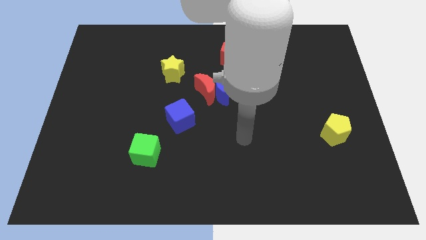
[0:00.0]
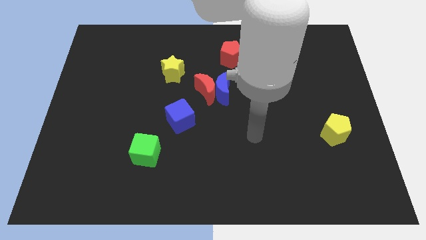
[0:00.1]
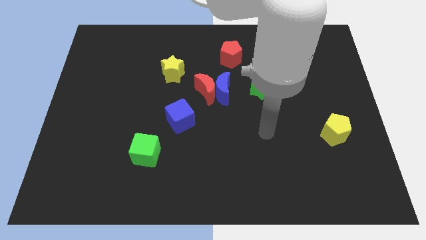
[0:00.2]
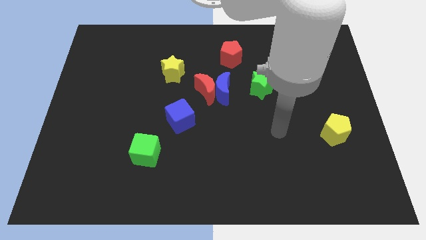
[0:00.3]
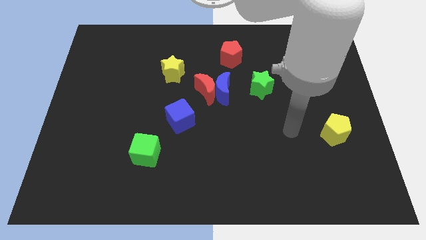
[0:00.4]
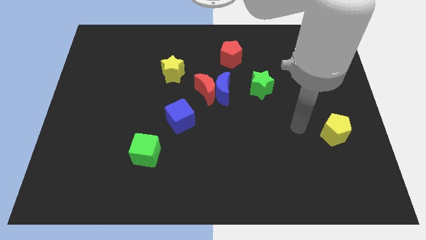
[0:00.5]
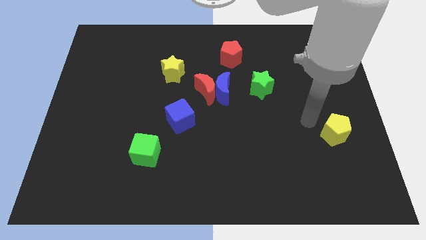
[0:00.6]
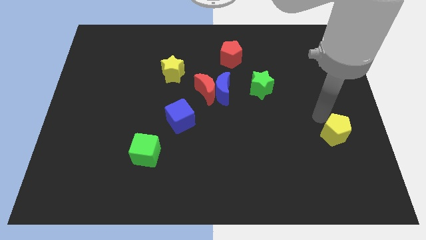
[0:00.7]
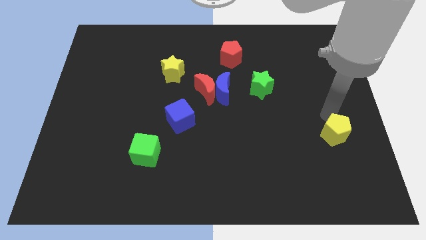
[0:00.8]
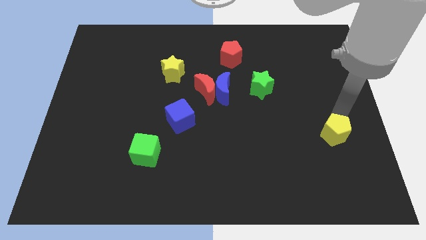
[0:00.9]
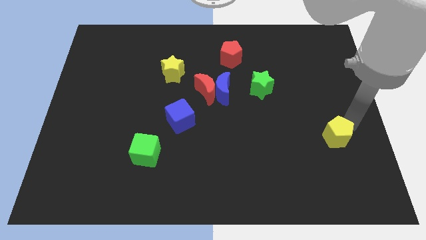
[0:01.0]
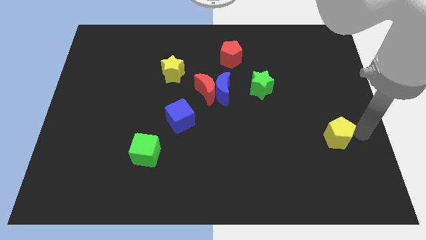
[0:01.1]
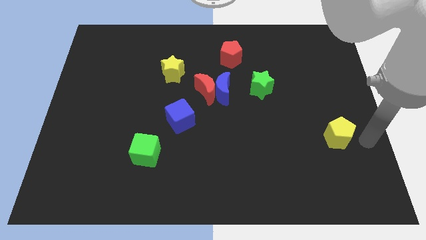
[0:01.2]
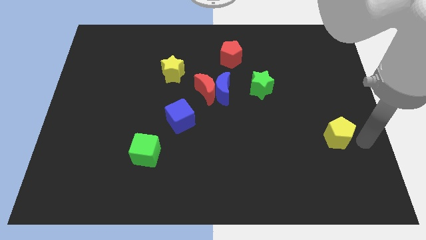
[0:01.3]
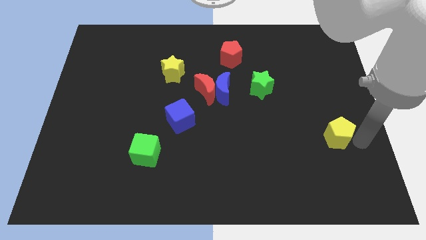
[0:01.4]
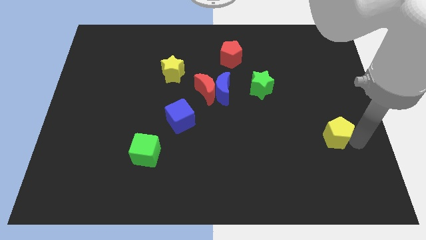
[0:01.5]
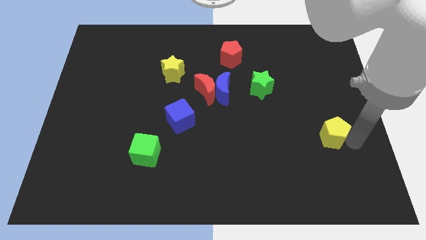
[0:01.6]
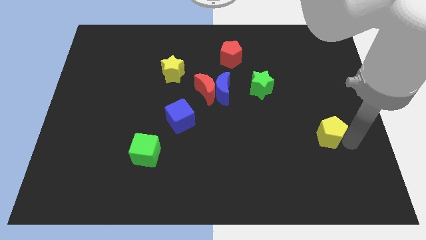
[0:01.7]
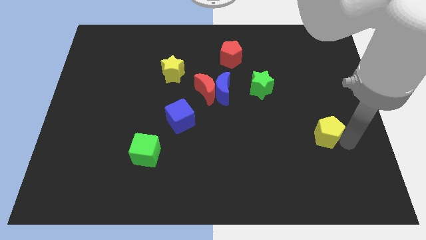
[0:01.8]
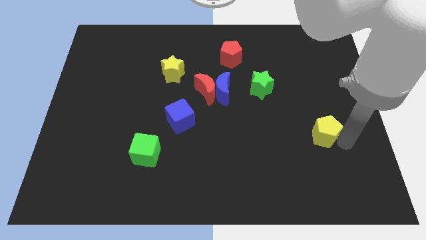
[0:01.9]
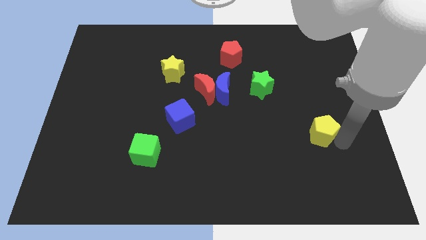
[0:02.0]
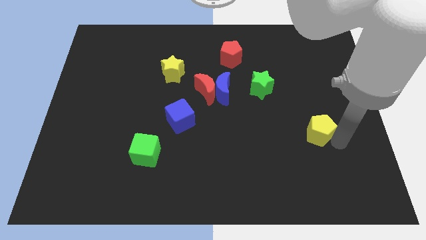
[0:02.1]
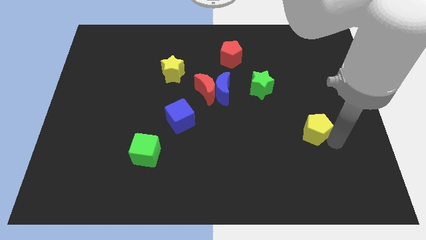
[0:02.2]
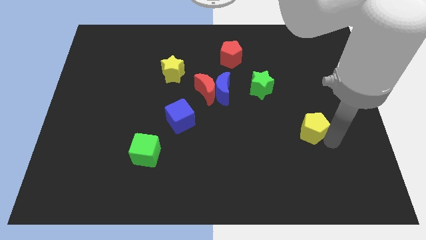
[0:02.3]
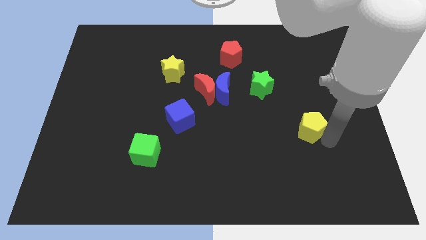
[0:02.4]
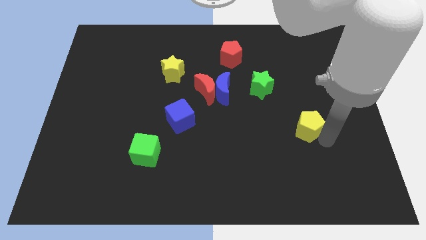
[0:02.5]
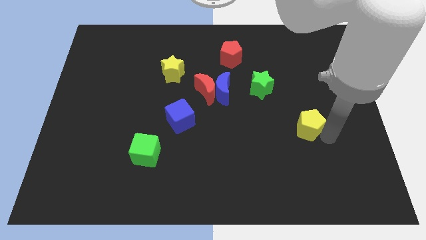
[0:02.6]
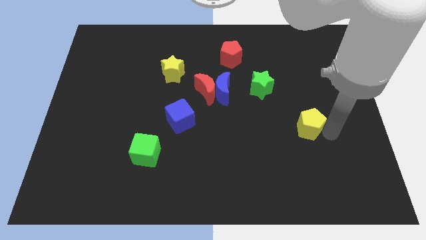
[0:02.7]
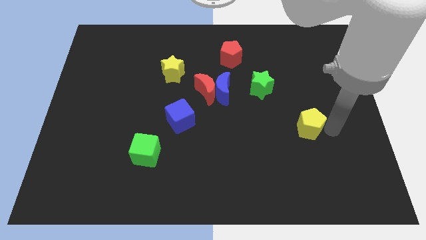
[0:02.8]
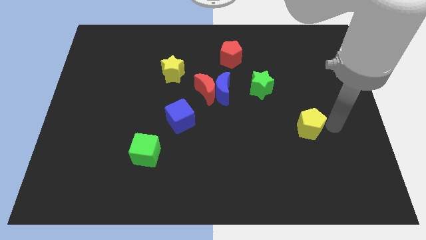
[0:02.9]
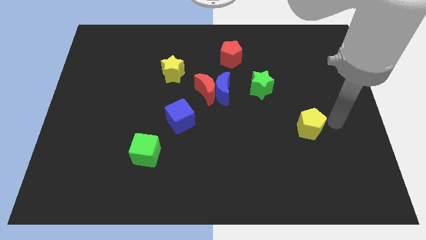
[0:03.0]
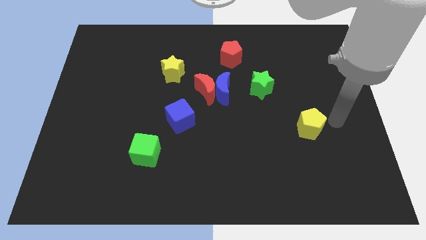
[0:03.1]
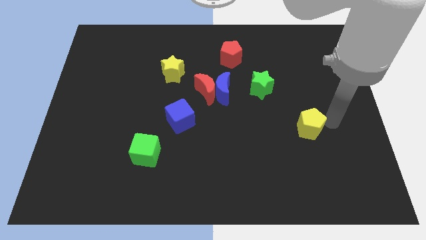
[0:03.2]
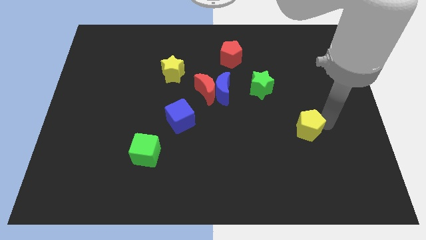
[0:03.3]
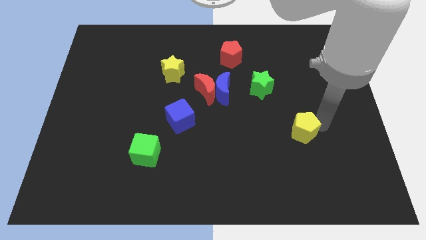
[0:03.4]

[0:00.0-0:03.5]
move the yellow pentagon to the left a little bit

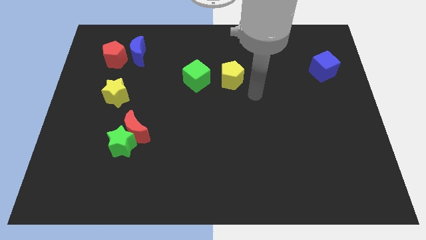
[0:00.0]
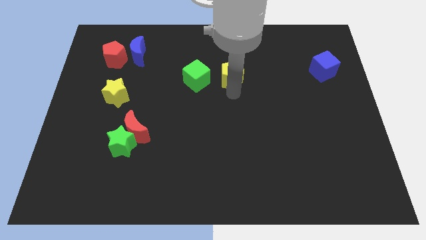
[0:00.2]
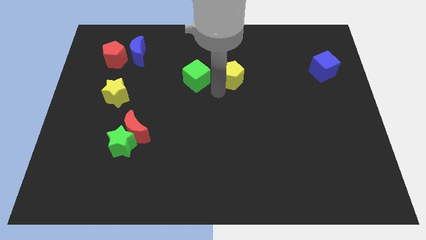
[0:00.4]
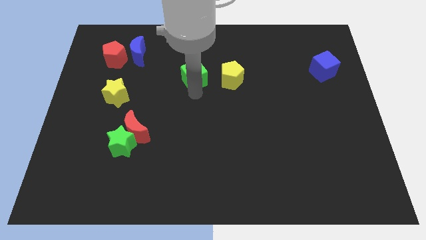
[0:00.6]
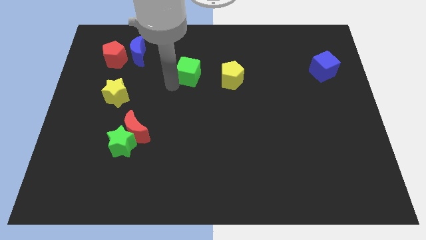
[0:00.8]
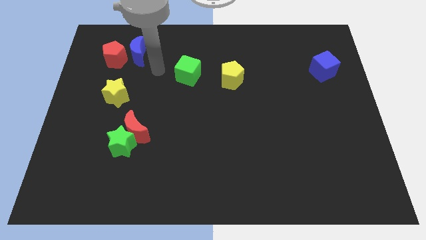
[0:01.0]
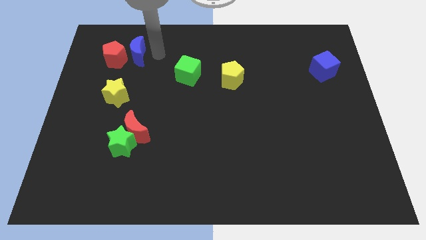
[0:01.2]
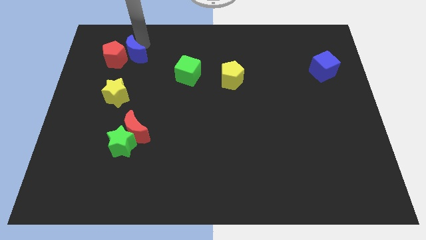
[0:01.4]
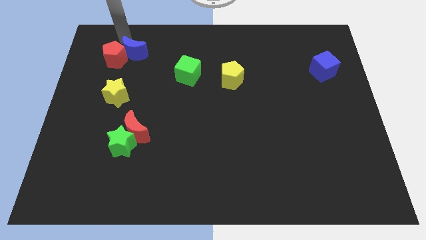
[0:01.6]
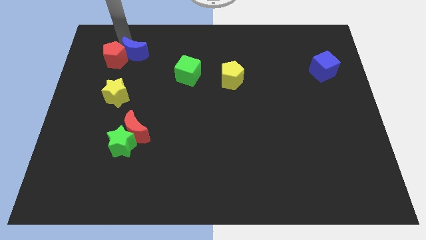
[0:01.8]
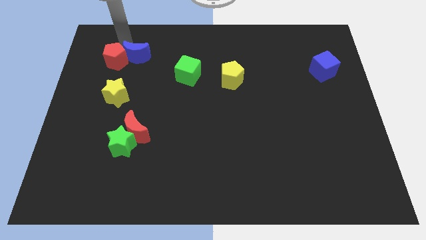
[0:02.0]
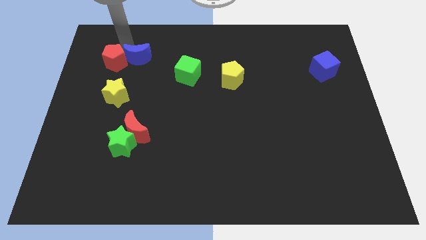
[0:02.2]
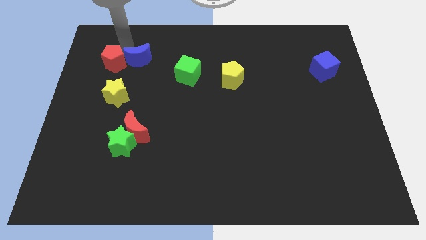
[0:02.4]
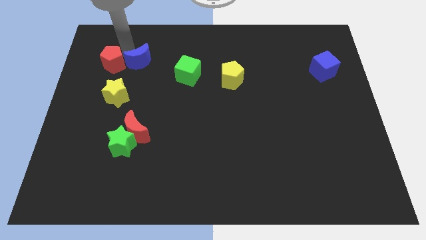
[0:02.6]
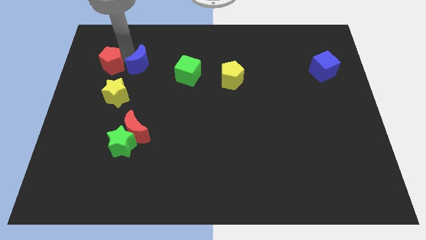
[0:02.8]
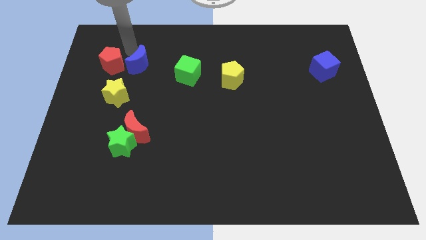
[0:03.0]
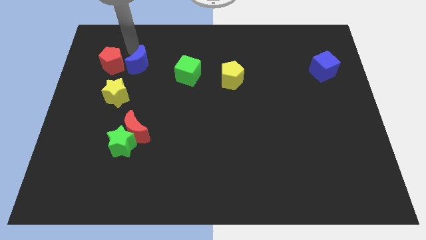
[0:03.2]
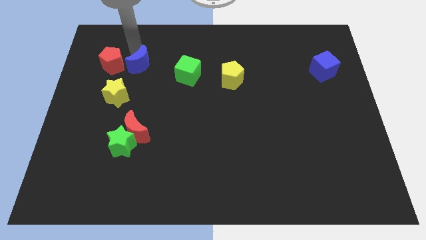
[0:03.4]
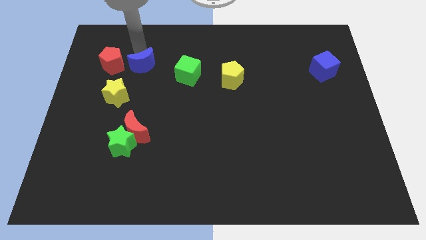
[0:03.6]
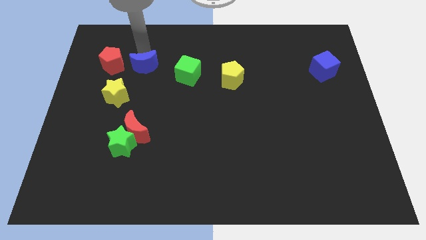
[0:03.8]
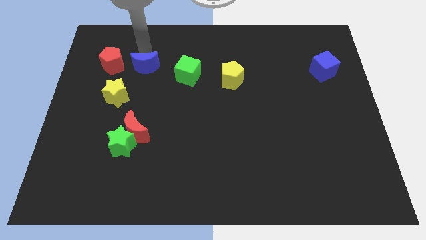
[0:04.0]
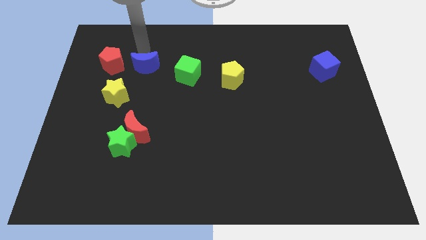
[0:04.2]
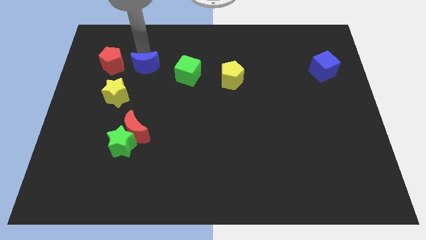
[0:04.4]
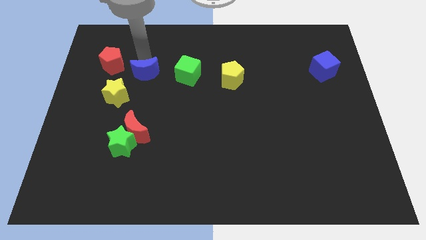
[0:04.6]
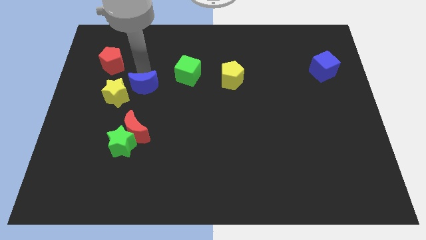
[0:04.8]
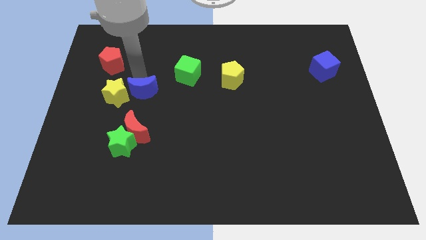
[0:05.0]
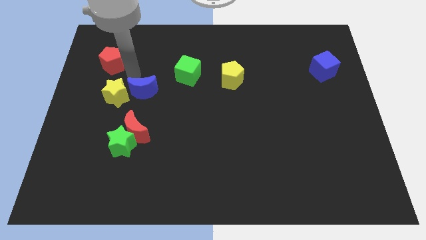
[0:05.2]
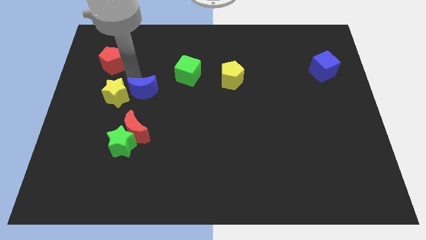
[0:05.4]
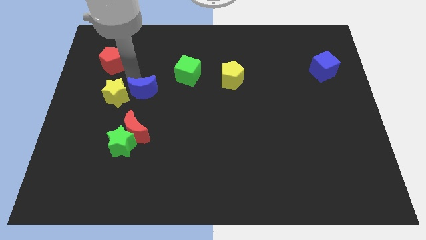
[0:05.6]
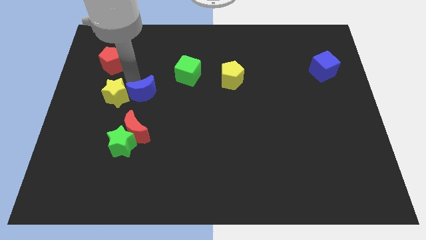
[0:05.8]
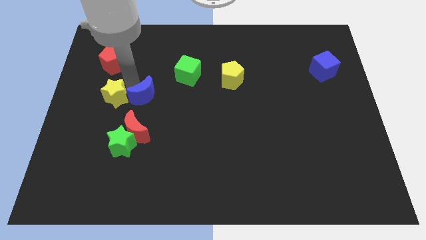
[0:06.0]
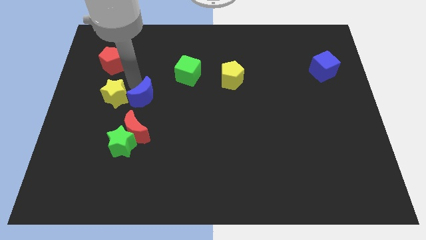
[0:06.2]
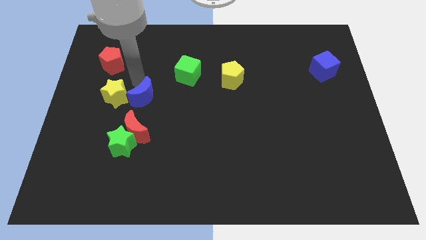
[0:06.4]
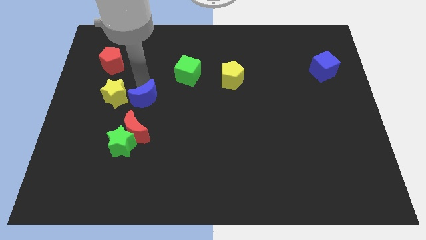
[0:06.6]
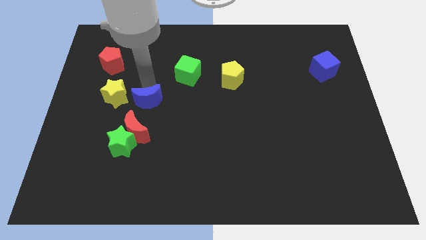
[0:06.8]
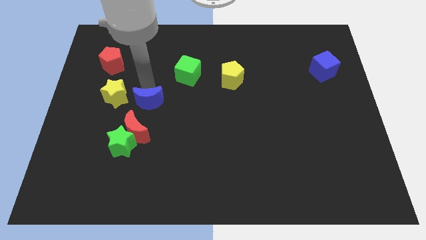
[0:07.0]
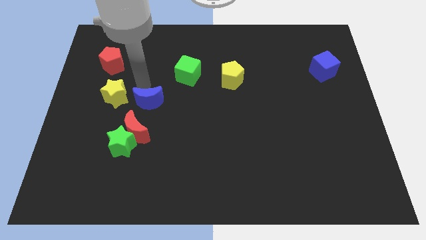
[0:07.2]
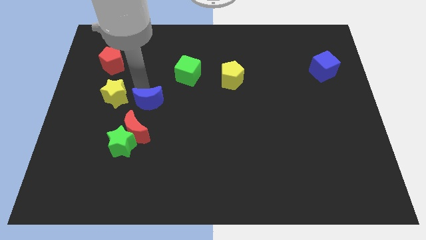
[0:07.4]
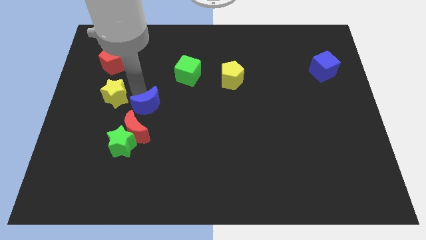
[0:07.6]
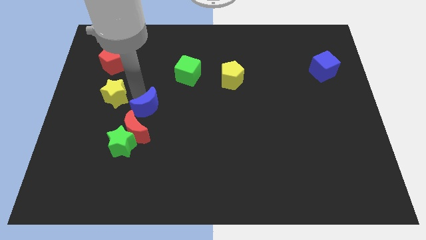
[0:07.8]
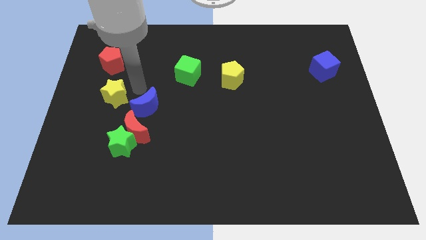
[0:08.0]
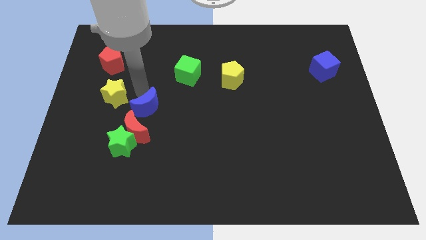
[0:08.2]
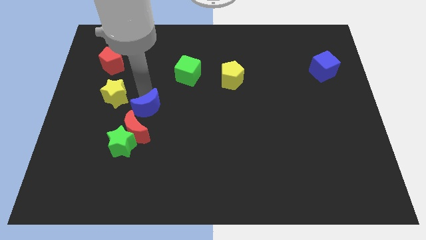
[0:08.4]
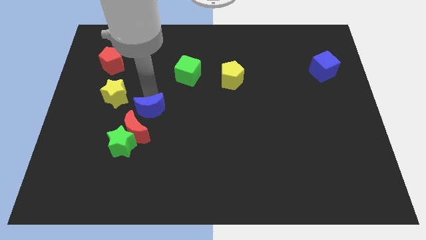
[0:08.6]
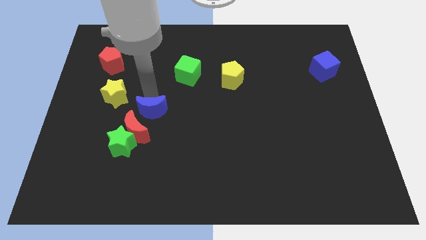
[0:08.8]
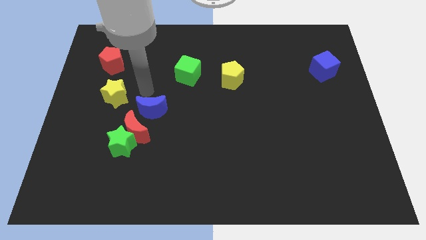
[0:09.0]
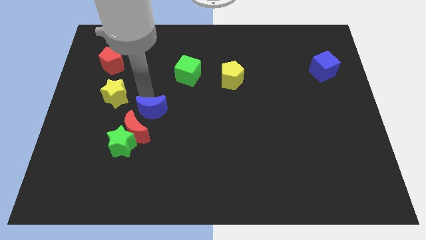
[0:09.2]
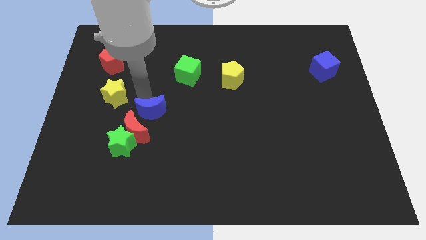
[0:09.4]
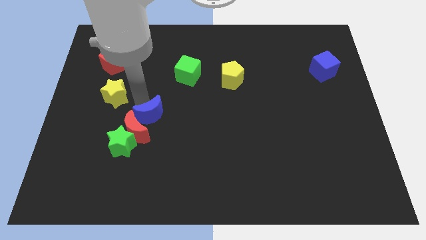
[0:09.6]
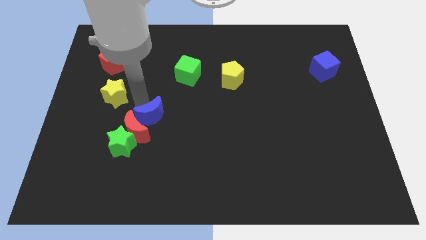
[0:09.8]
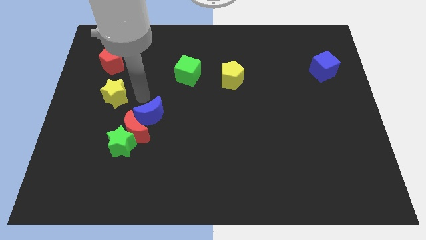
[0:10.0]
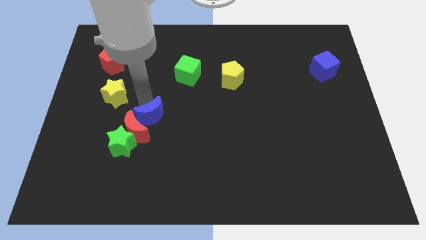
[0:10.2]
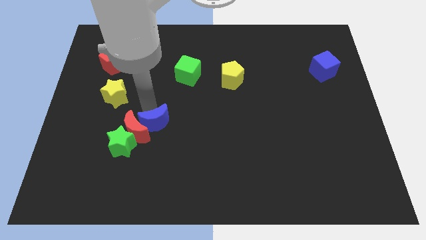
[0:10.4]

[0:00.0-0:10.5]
move the blue moon down
